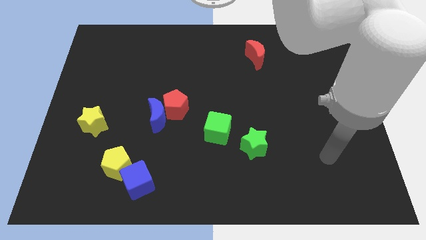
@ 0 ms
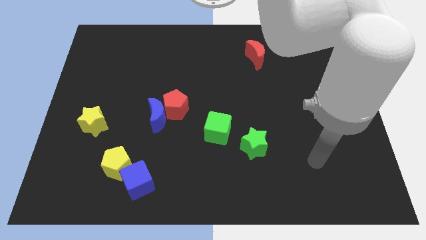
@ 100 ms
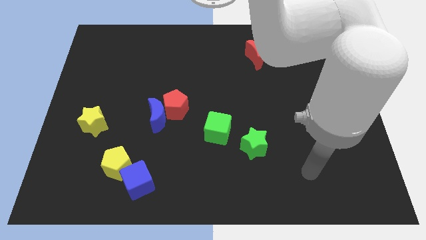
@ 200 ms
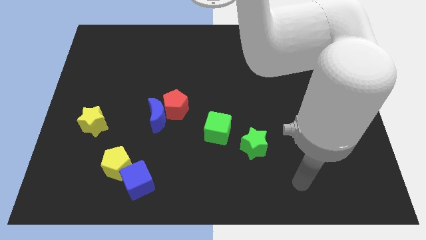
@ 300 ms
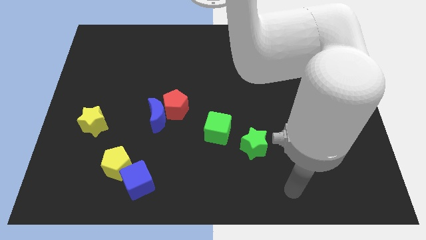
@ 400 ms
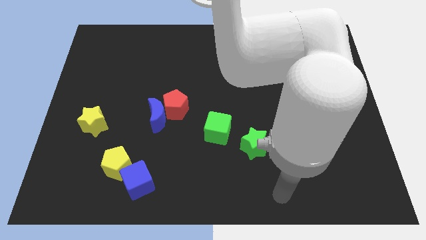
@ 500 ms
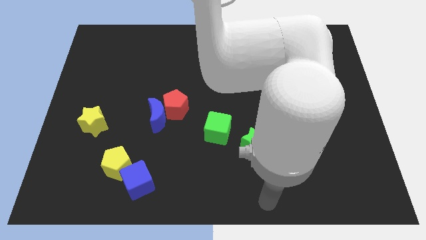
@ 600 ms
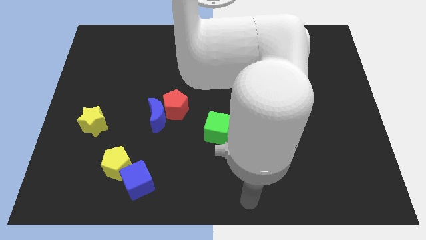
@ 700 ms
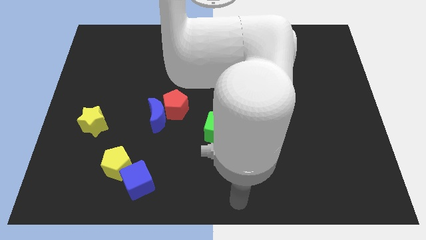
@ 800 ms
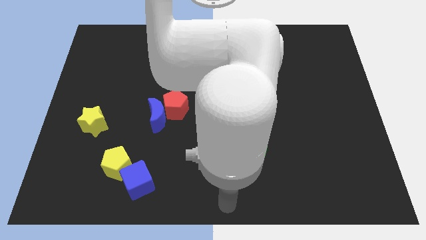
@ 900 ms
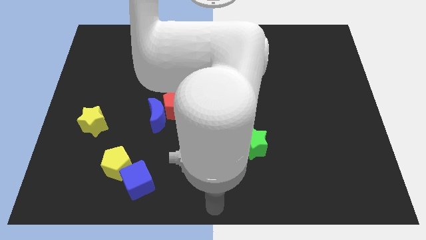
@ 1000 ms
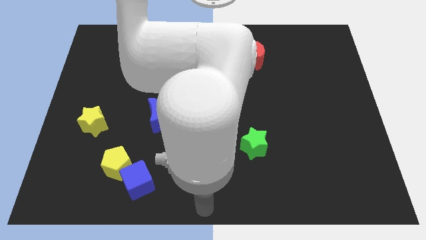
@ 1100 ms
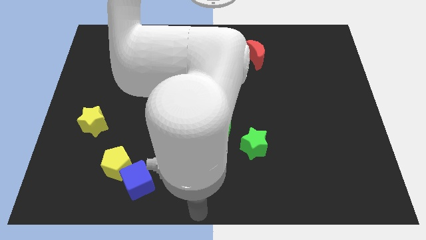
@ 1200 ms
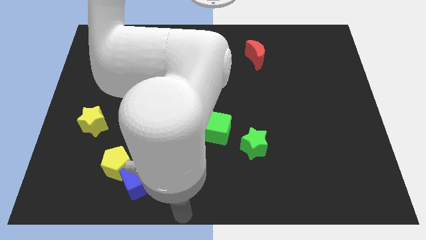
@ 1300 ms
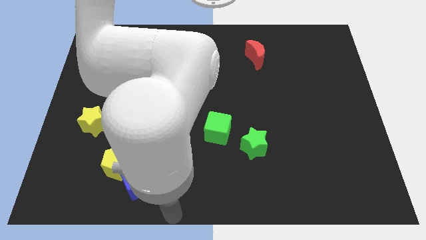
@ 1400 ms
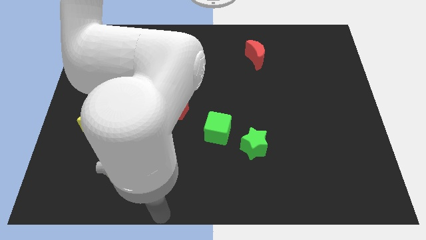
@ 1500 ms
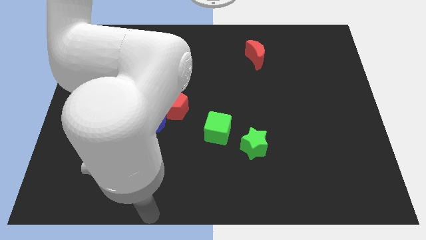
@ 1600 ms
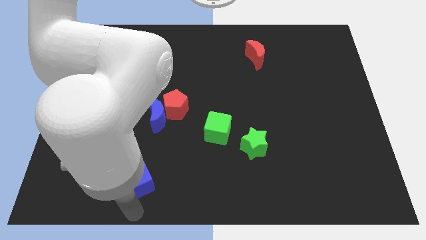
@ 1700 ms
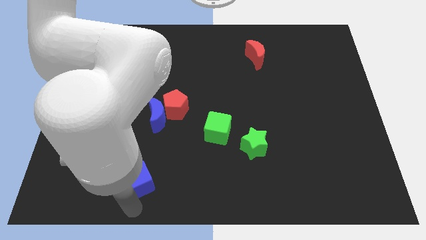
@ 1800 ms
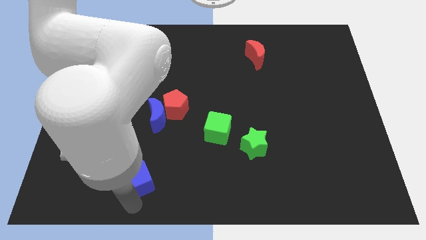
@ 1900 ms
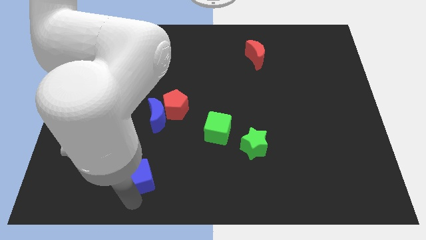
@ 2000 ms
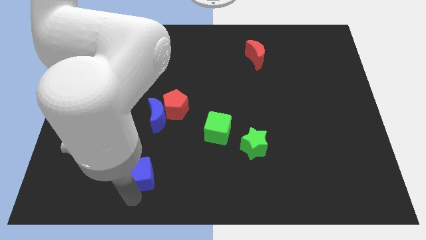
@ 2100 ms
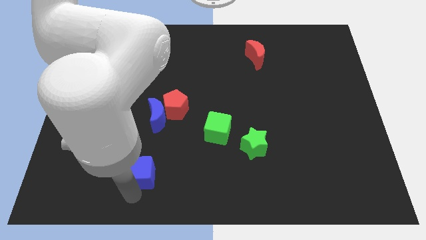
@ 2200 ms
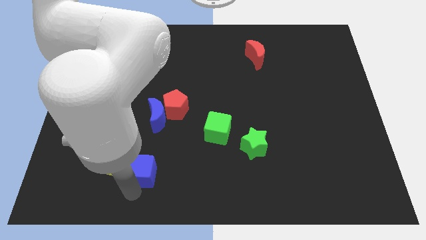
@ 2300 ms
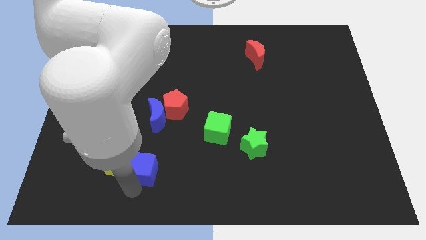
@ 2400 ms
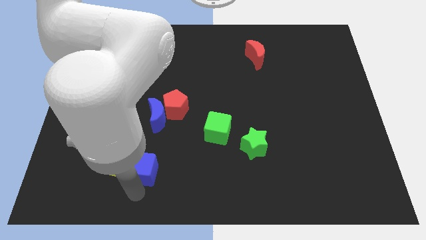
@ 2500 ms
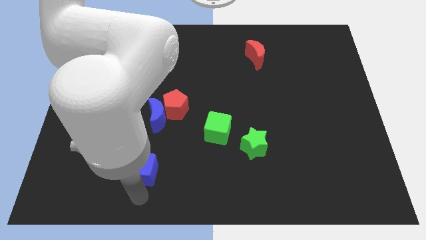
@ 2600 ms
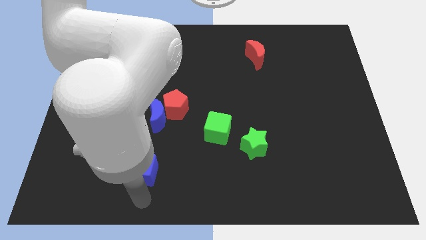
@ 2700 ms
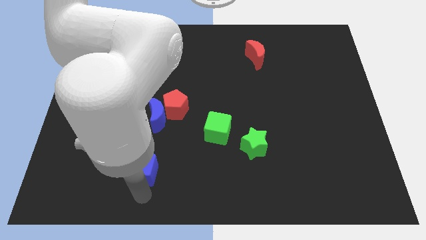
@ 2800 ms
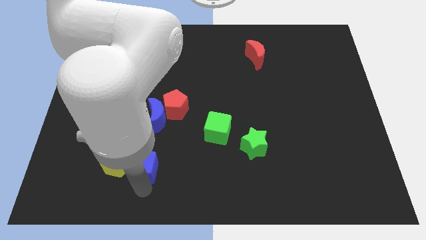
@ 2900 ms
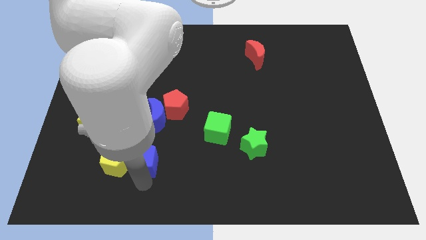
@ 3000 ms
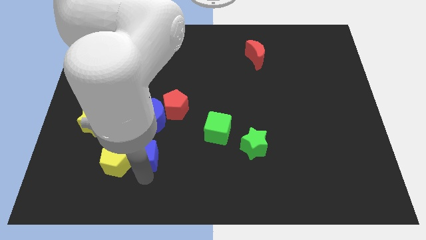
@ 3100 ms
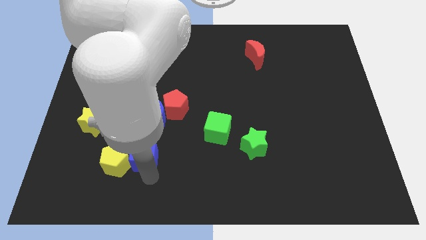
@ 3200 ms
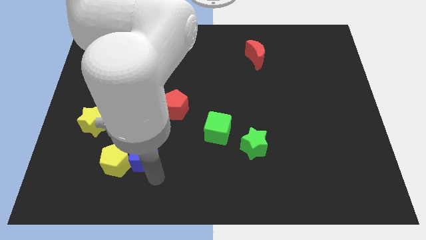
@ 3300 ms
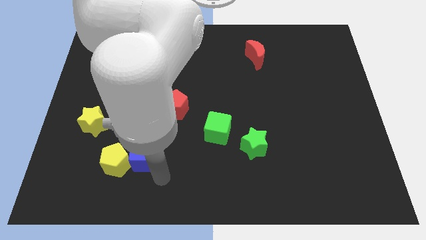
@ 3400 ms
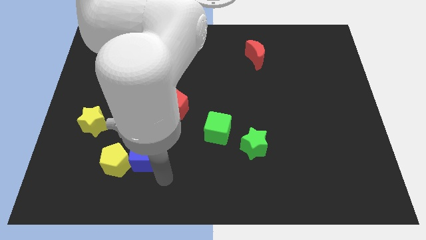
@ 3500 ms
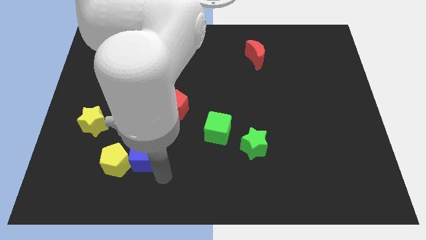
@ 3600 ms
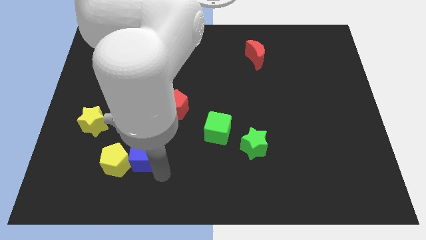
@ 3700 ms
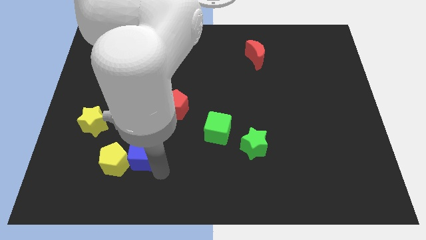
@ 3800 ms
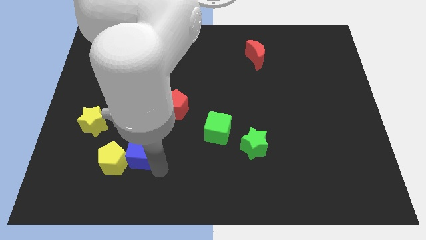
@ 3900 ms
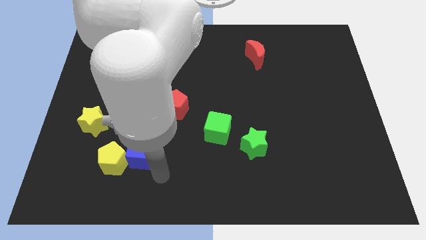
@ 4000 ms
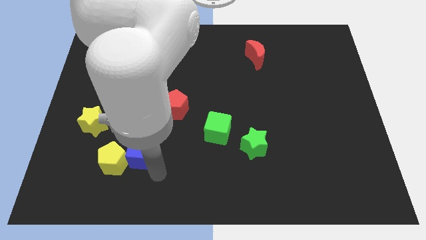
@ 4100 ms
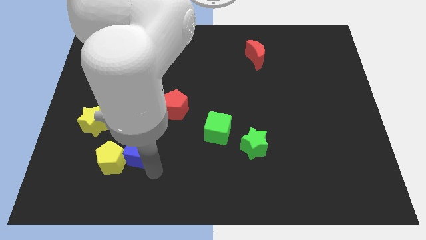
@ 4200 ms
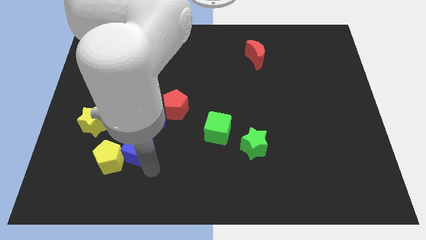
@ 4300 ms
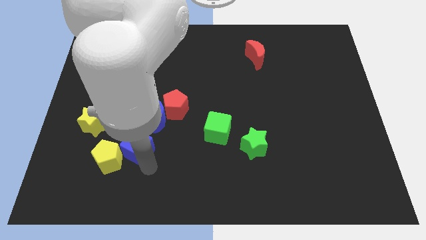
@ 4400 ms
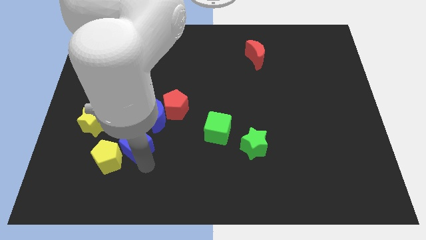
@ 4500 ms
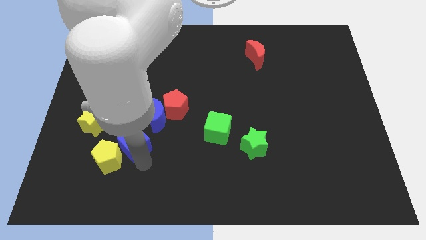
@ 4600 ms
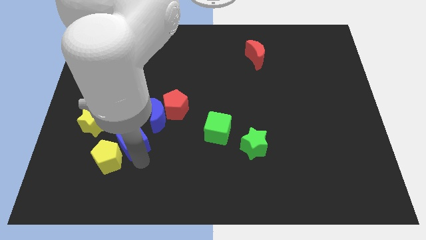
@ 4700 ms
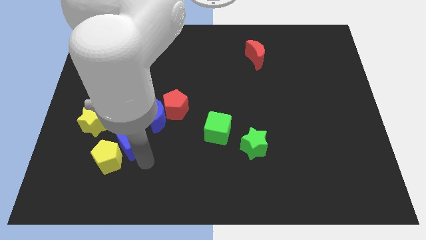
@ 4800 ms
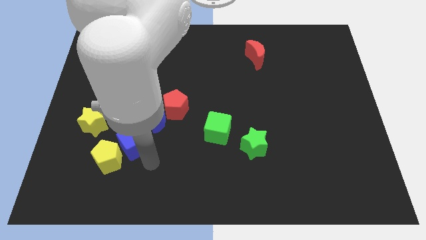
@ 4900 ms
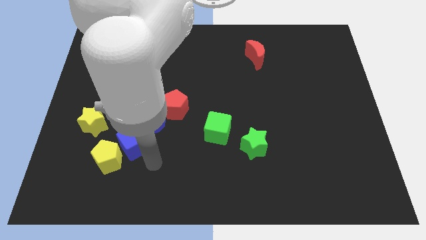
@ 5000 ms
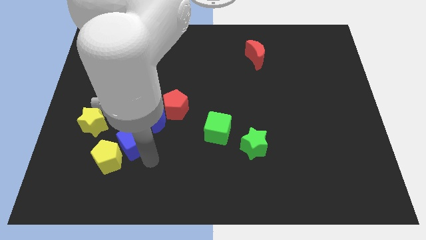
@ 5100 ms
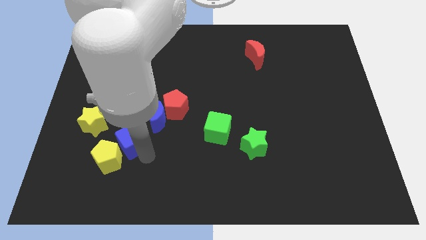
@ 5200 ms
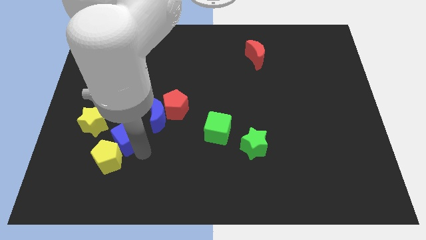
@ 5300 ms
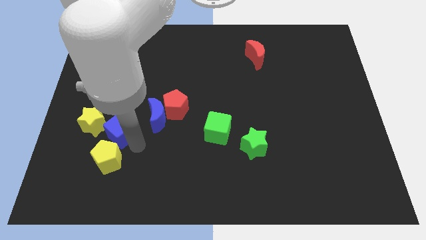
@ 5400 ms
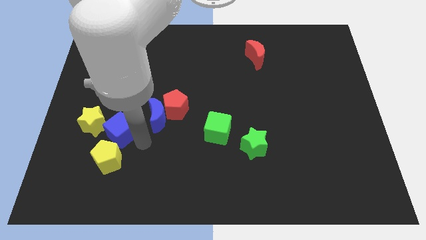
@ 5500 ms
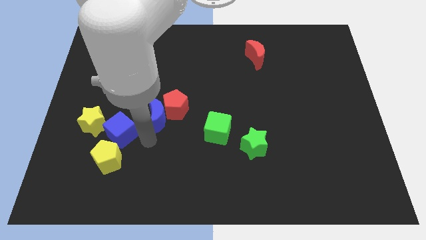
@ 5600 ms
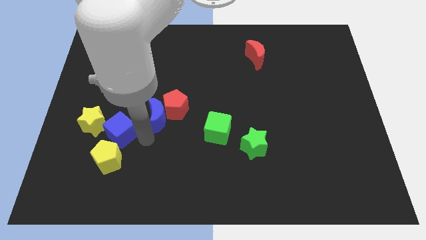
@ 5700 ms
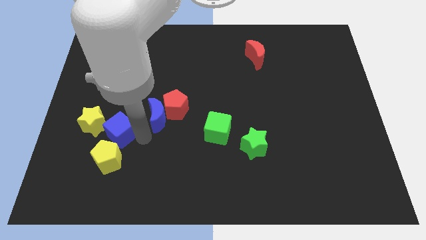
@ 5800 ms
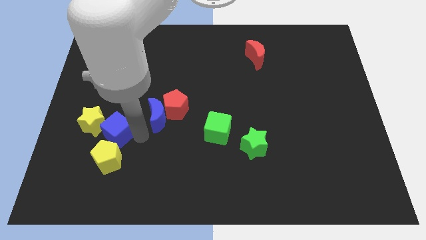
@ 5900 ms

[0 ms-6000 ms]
move the blue cube next to the yellow star
